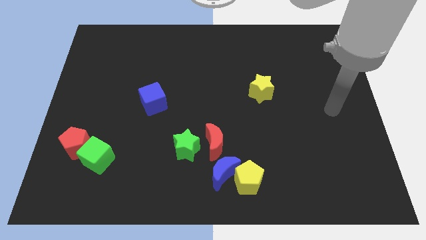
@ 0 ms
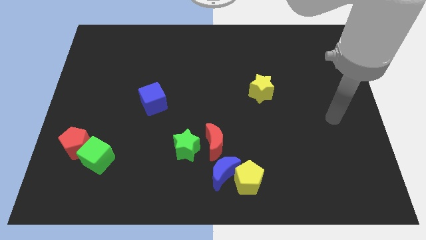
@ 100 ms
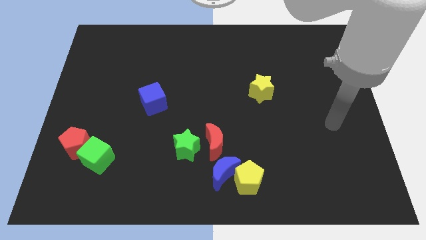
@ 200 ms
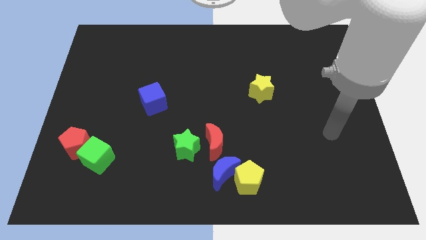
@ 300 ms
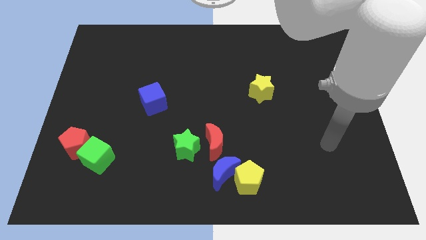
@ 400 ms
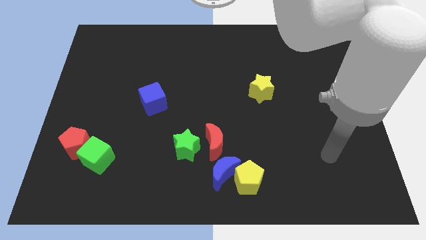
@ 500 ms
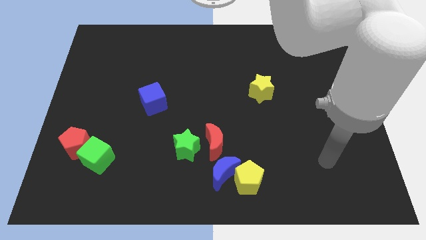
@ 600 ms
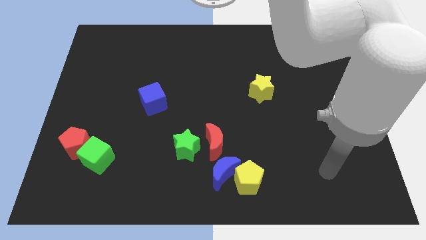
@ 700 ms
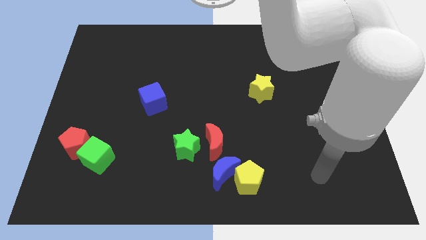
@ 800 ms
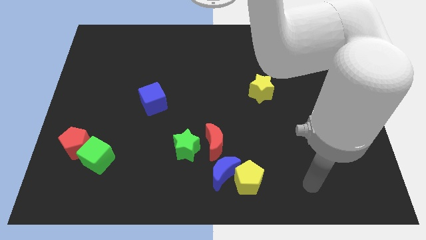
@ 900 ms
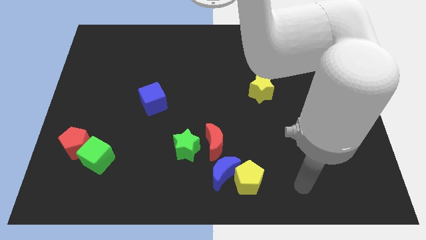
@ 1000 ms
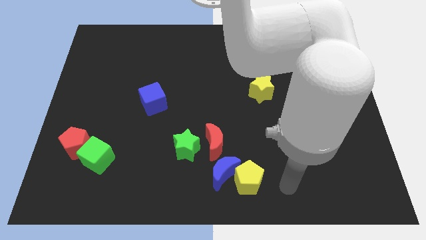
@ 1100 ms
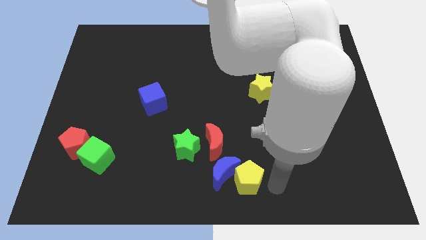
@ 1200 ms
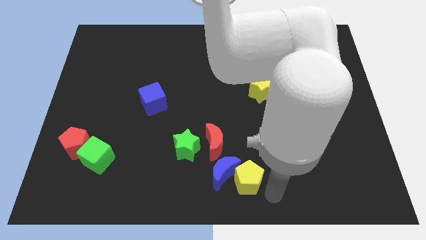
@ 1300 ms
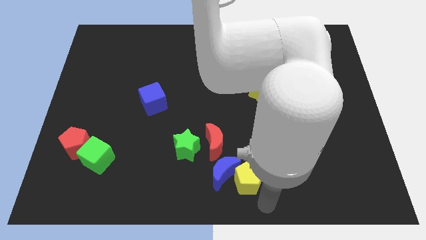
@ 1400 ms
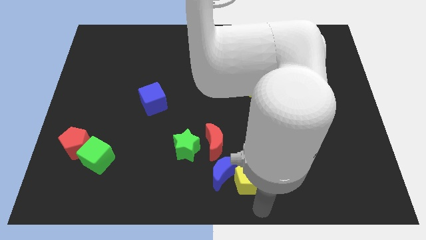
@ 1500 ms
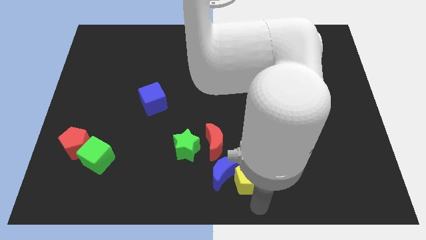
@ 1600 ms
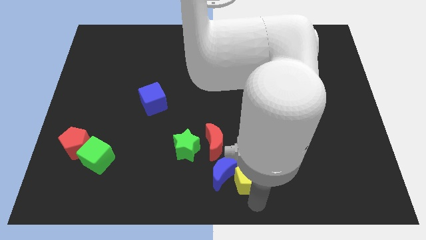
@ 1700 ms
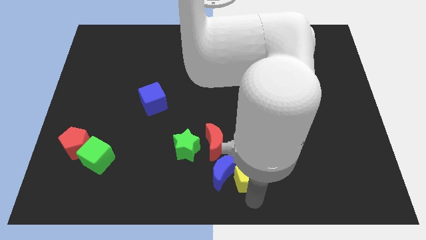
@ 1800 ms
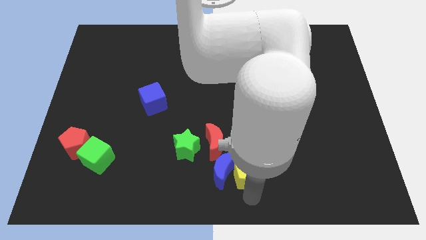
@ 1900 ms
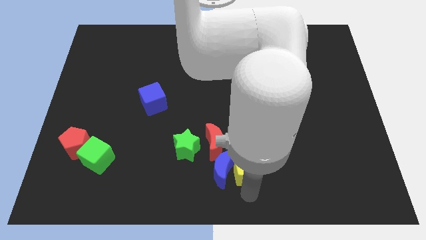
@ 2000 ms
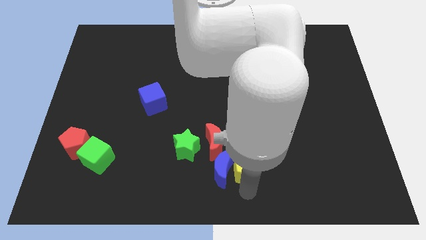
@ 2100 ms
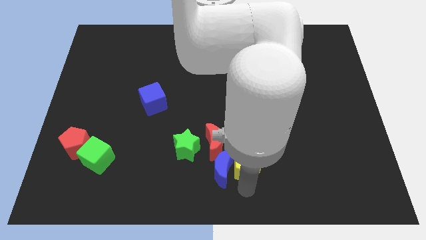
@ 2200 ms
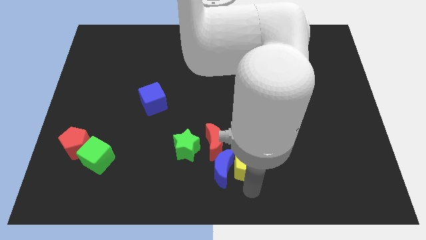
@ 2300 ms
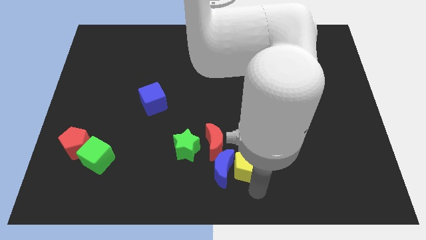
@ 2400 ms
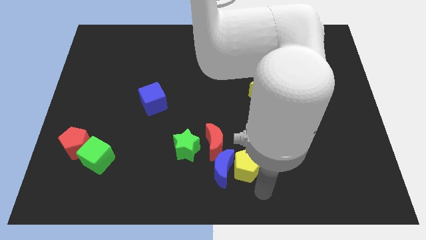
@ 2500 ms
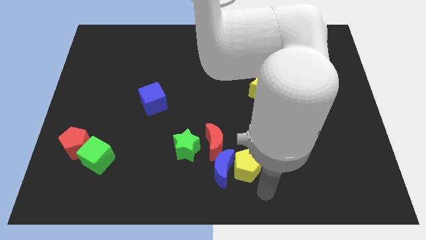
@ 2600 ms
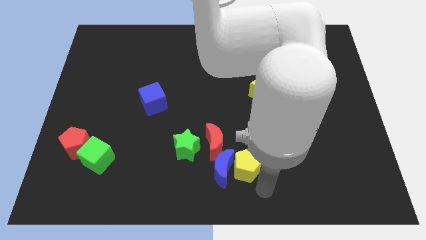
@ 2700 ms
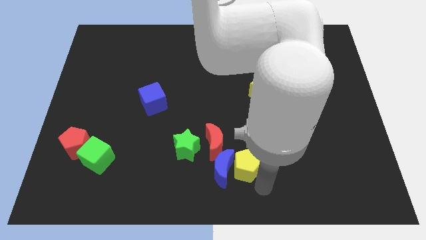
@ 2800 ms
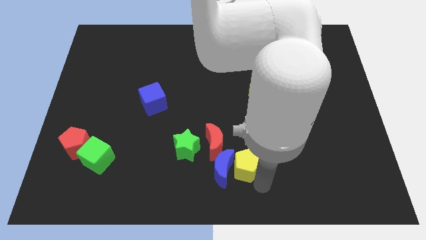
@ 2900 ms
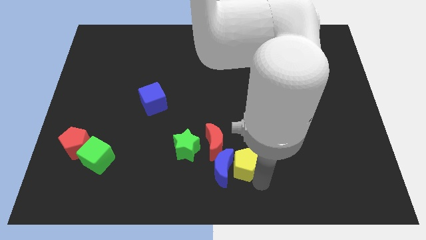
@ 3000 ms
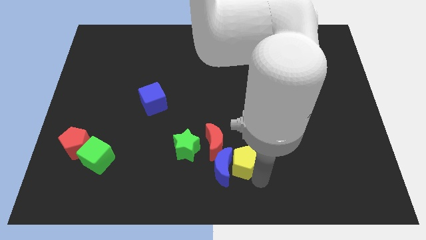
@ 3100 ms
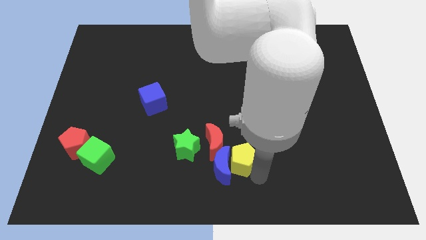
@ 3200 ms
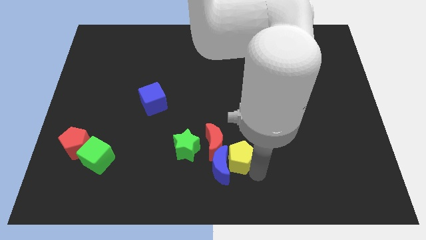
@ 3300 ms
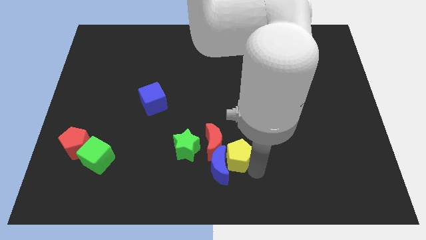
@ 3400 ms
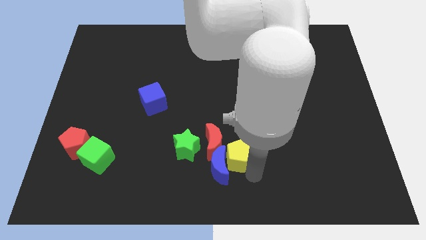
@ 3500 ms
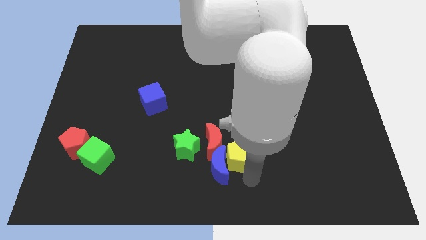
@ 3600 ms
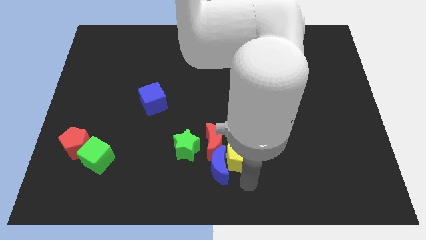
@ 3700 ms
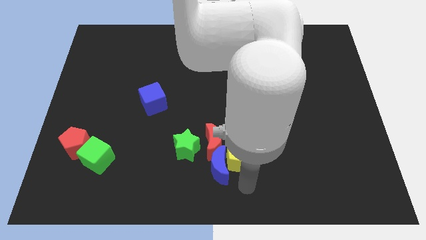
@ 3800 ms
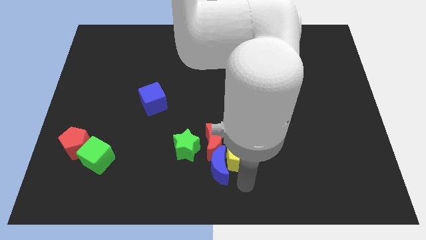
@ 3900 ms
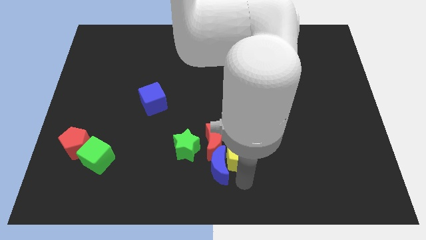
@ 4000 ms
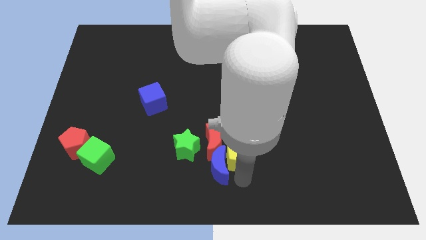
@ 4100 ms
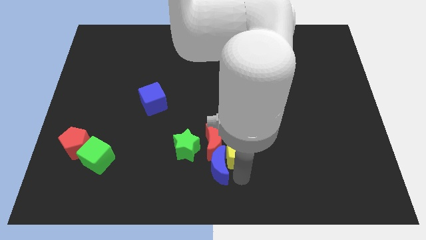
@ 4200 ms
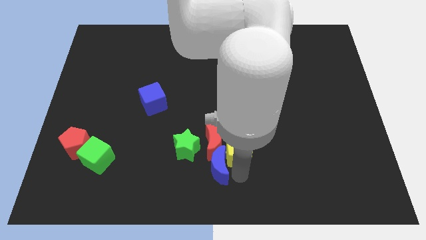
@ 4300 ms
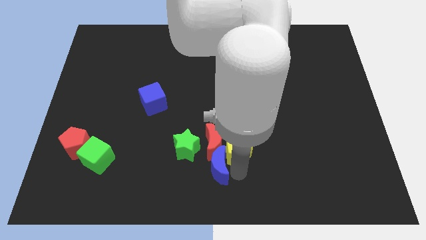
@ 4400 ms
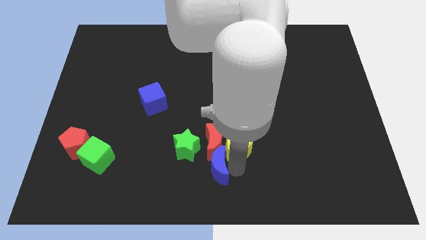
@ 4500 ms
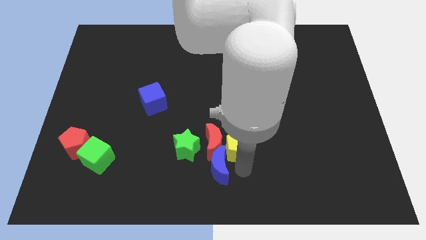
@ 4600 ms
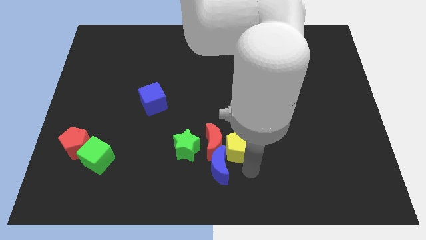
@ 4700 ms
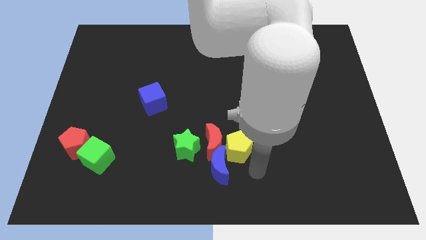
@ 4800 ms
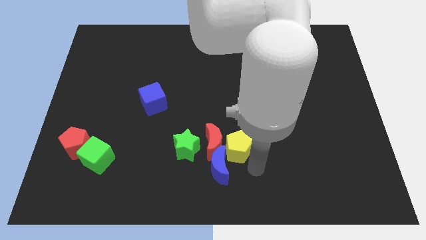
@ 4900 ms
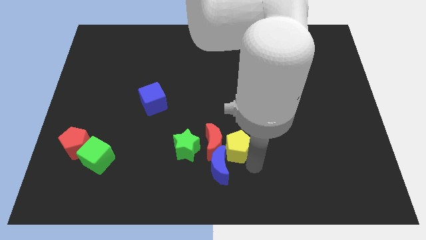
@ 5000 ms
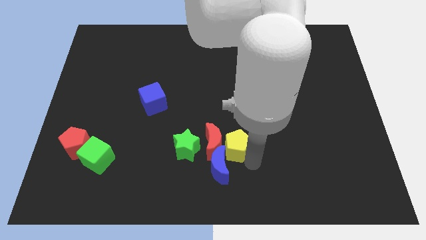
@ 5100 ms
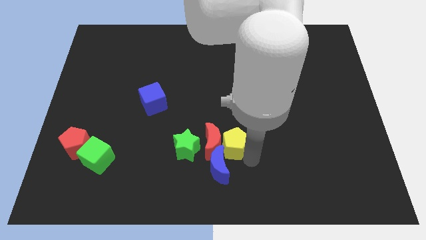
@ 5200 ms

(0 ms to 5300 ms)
move the yellow pentagon upwards and left diagonally a little bit

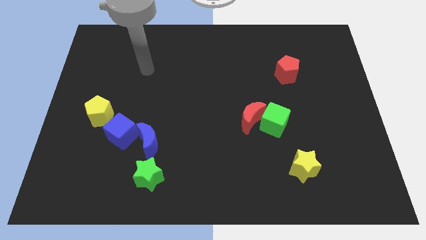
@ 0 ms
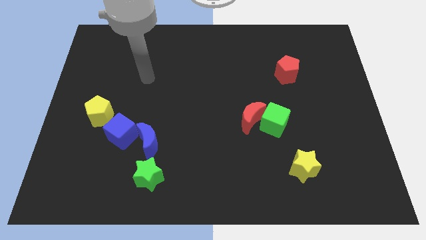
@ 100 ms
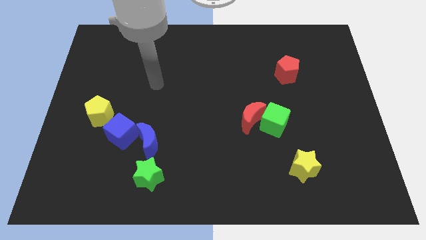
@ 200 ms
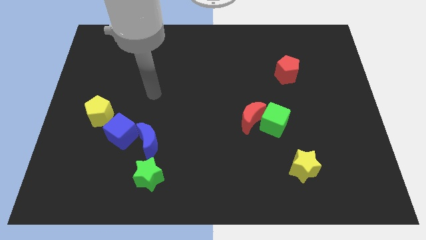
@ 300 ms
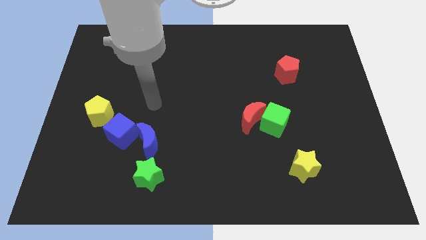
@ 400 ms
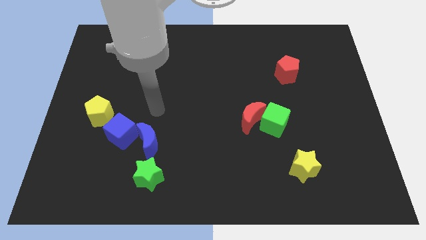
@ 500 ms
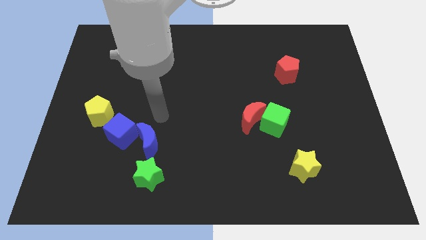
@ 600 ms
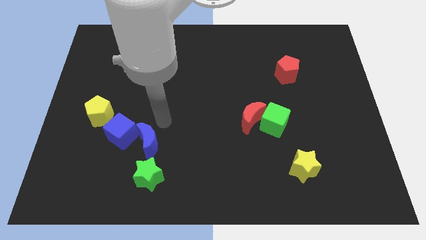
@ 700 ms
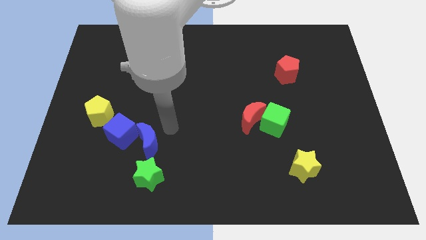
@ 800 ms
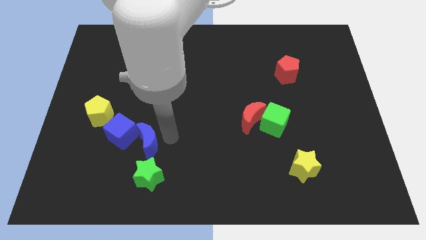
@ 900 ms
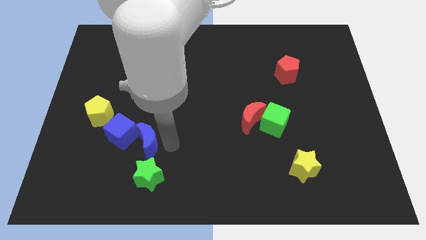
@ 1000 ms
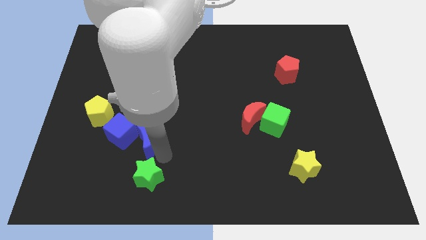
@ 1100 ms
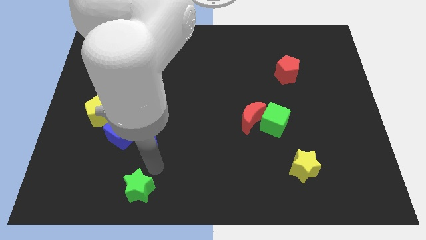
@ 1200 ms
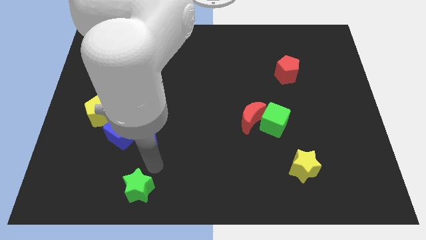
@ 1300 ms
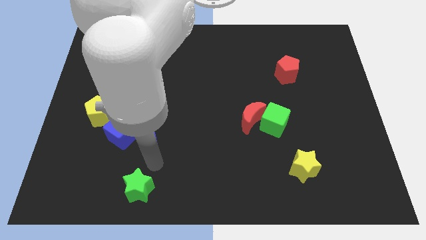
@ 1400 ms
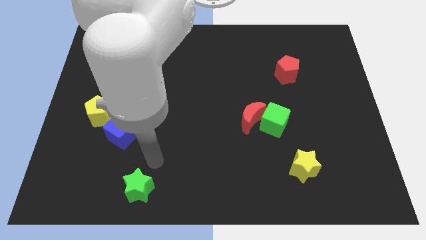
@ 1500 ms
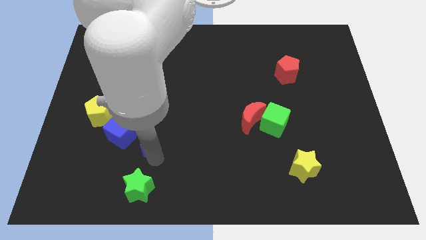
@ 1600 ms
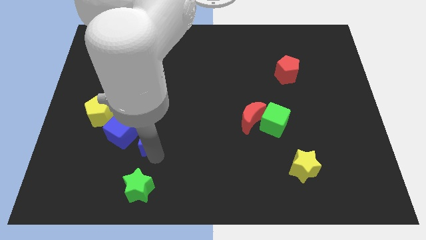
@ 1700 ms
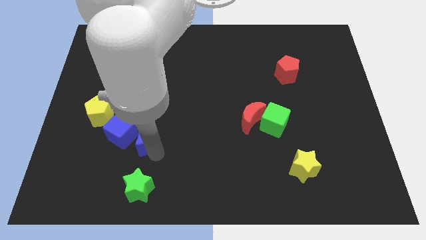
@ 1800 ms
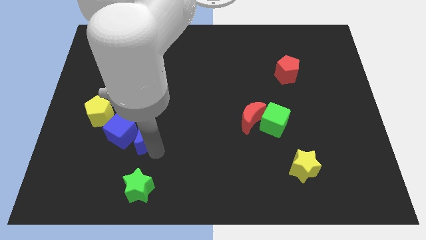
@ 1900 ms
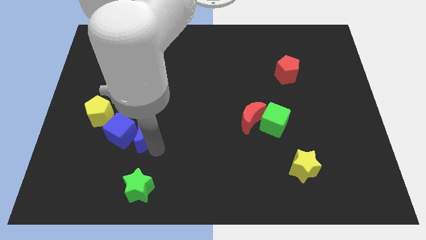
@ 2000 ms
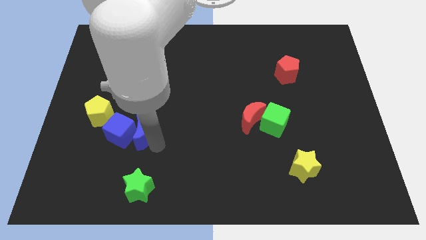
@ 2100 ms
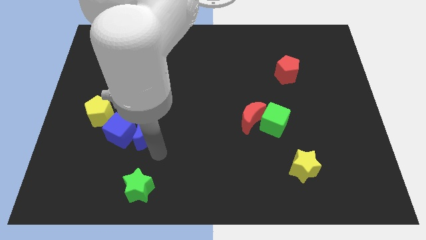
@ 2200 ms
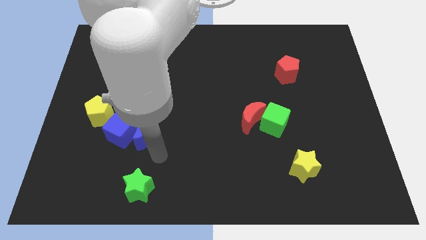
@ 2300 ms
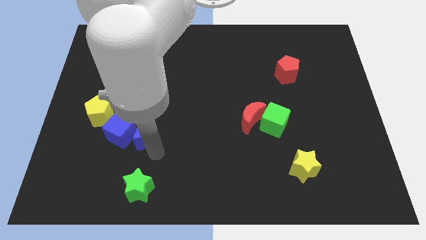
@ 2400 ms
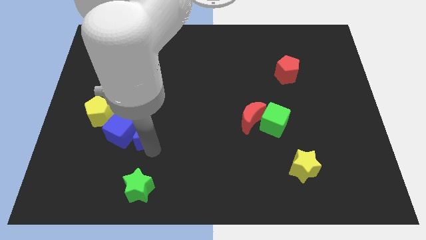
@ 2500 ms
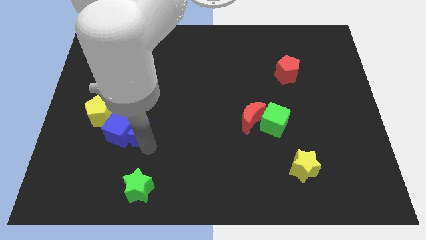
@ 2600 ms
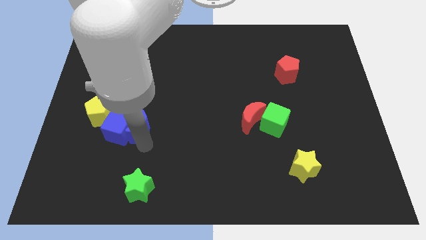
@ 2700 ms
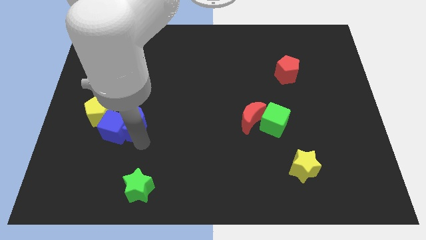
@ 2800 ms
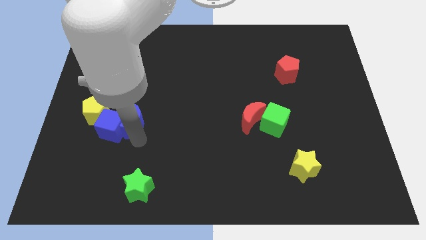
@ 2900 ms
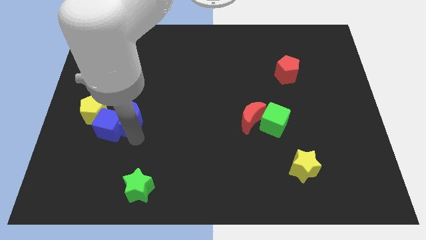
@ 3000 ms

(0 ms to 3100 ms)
move the blue moon a little bit up and left
